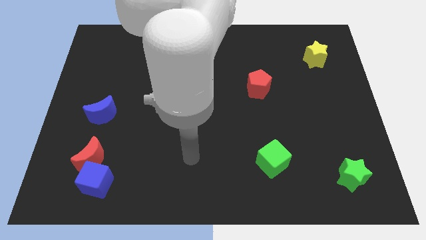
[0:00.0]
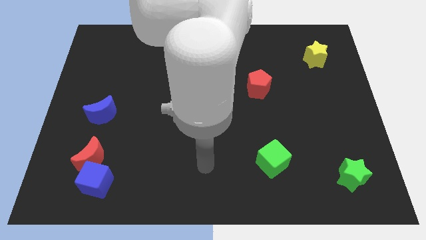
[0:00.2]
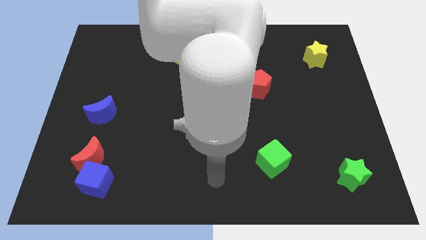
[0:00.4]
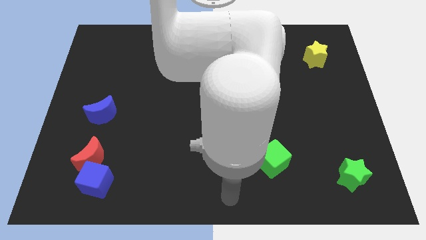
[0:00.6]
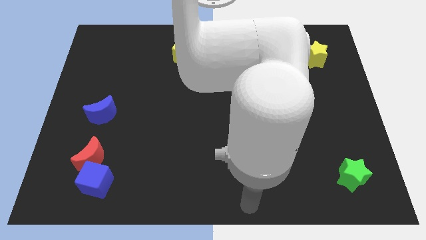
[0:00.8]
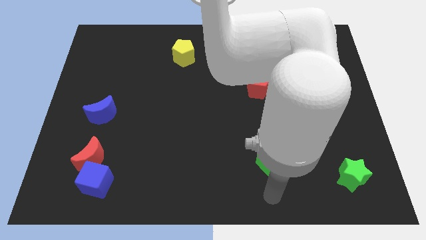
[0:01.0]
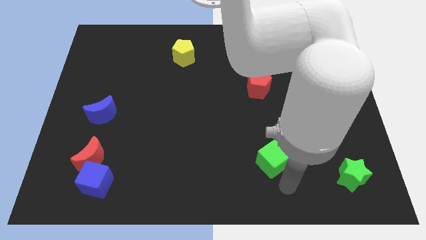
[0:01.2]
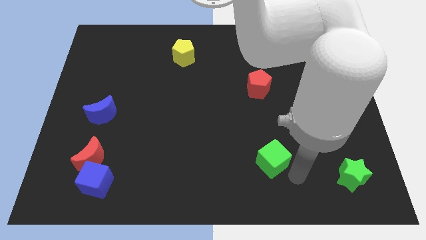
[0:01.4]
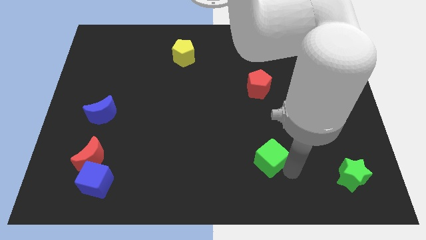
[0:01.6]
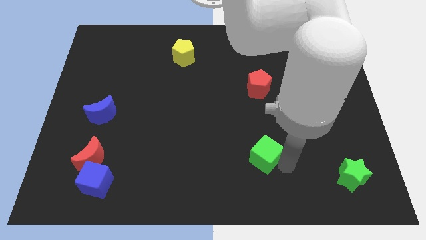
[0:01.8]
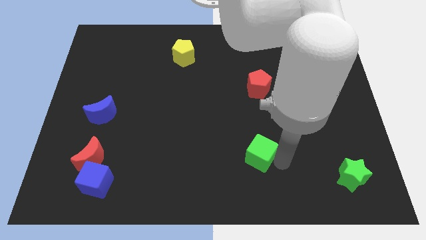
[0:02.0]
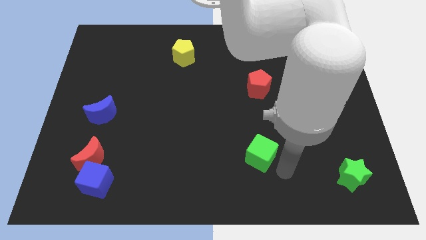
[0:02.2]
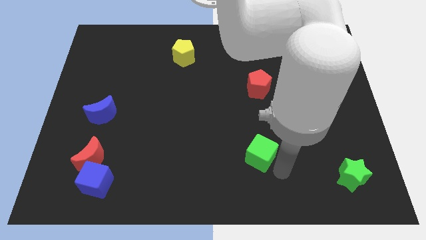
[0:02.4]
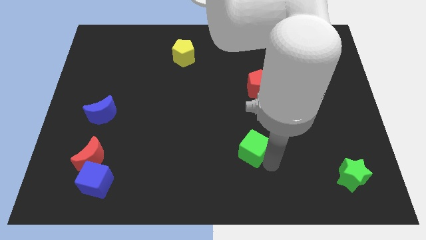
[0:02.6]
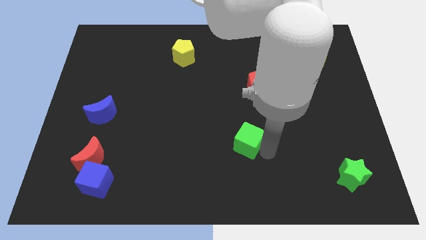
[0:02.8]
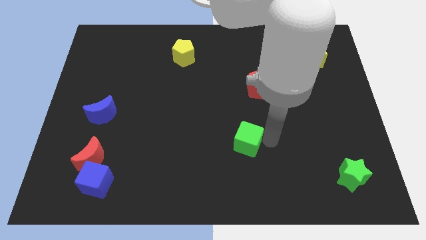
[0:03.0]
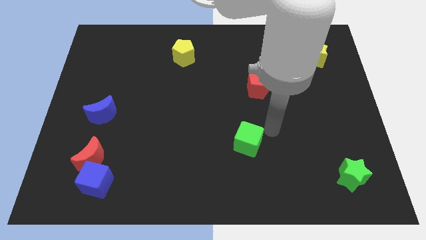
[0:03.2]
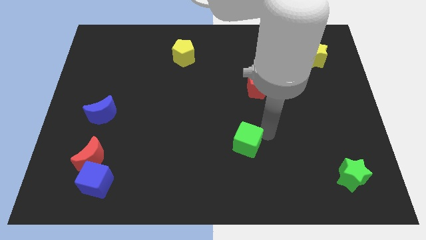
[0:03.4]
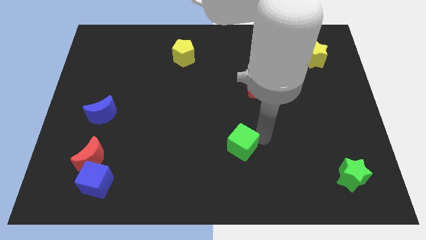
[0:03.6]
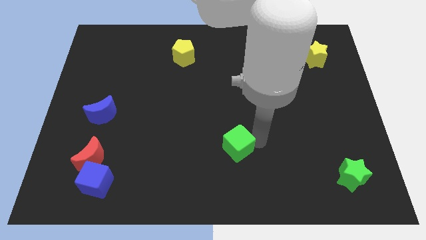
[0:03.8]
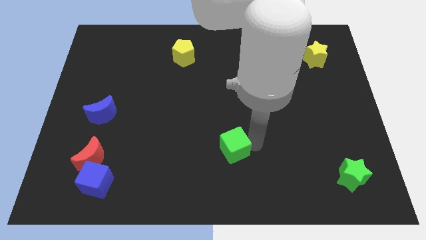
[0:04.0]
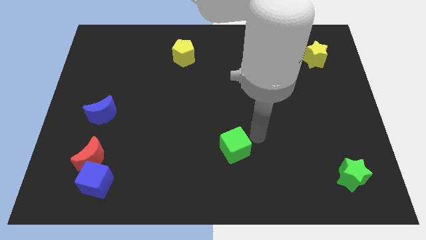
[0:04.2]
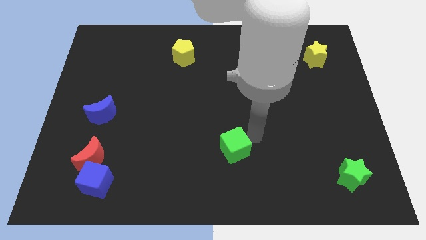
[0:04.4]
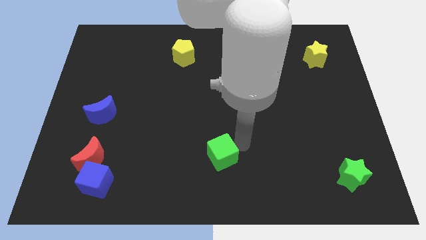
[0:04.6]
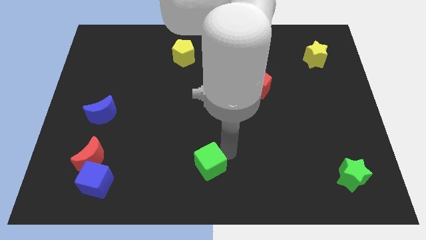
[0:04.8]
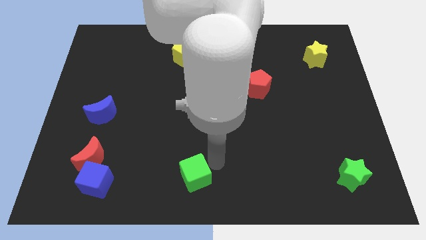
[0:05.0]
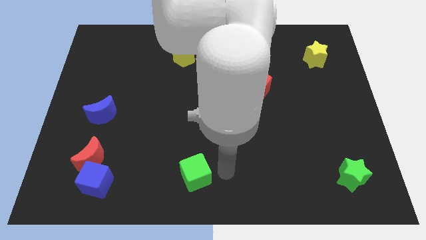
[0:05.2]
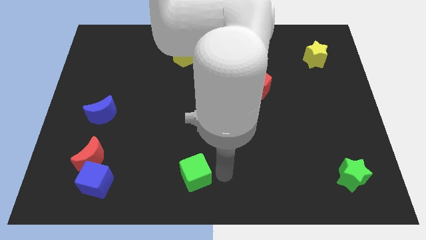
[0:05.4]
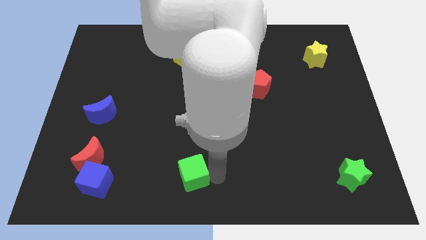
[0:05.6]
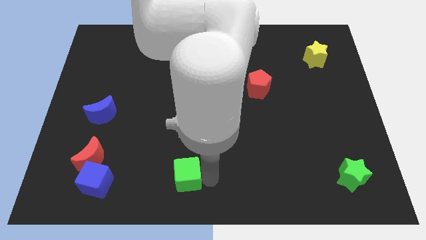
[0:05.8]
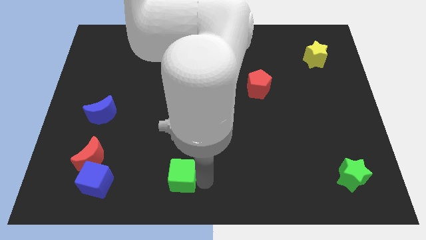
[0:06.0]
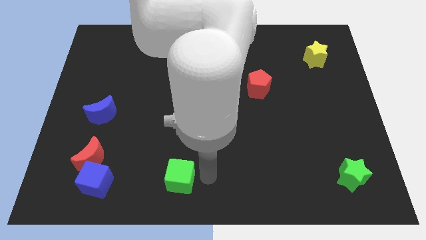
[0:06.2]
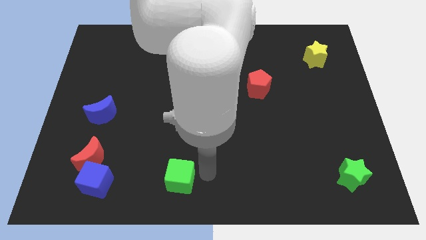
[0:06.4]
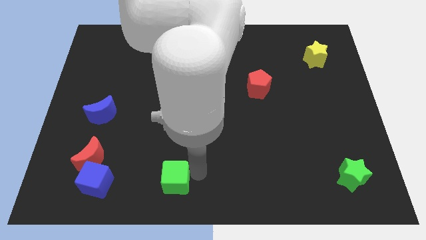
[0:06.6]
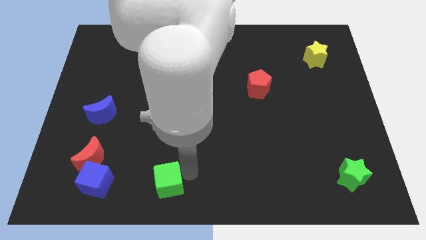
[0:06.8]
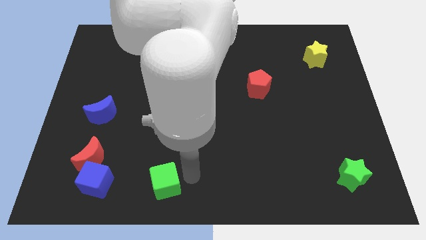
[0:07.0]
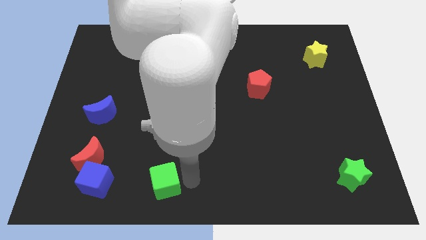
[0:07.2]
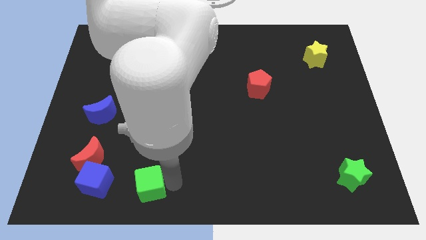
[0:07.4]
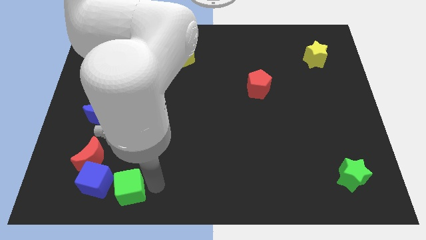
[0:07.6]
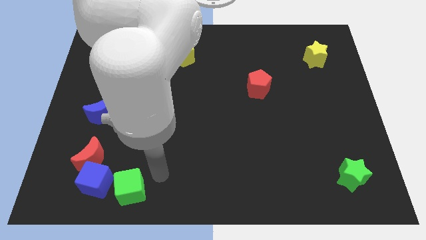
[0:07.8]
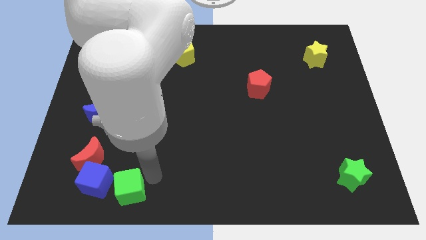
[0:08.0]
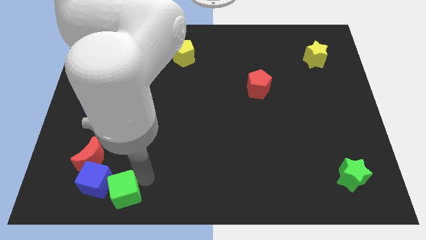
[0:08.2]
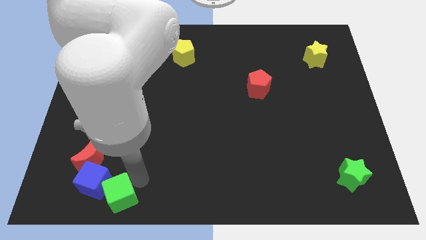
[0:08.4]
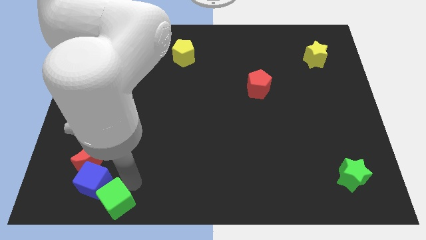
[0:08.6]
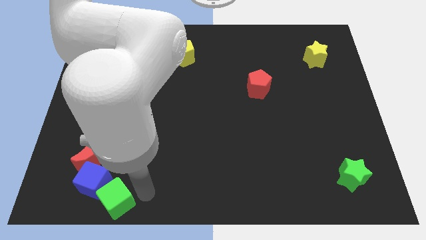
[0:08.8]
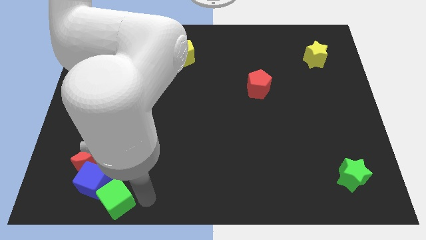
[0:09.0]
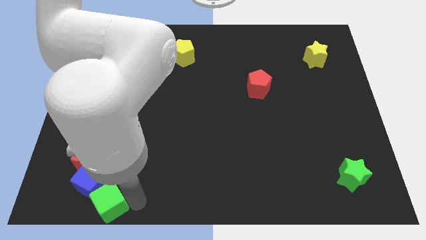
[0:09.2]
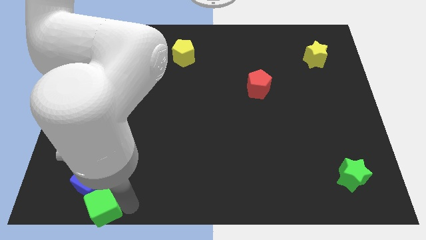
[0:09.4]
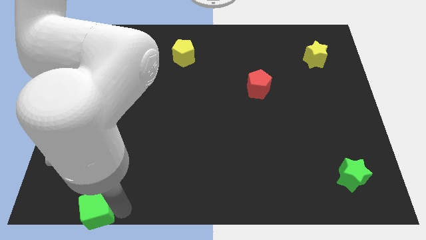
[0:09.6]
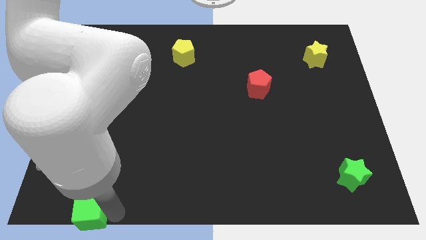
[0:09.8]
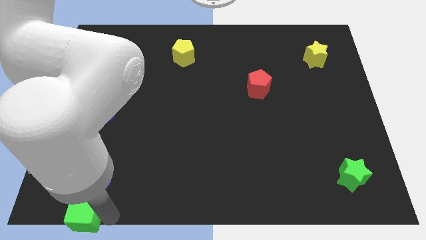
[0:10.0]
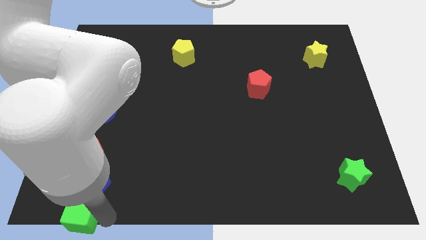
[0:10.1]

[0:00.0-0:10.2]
move the green cube to the lower left corner

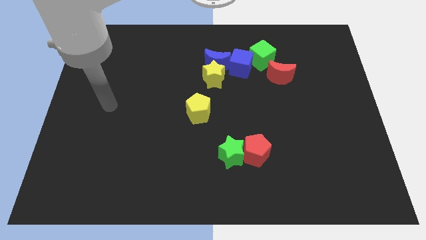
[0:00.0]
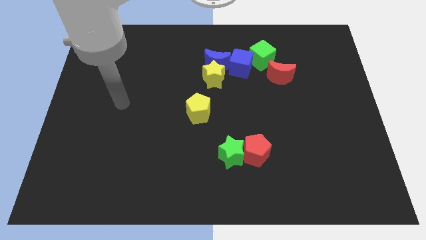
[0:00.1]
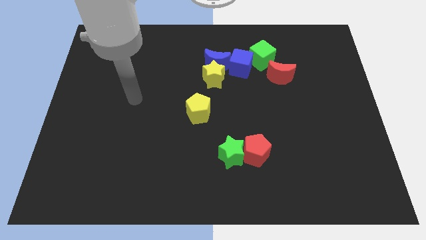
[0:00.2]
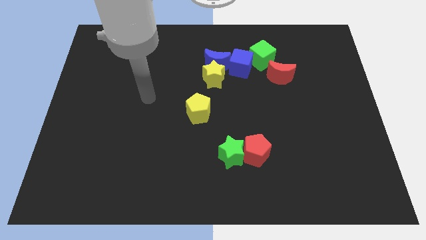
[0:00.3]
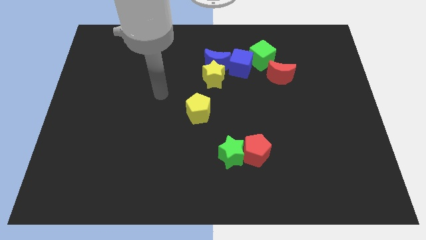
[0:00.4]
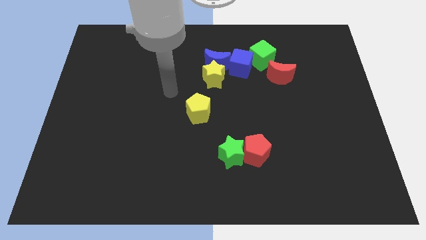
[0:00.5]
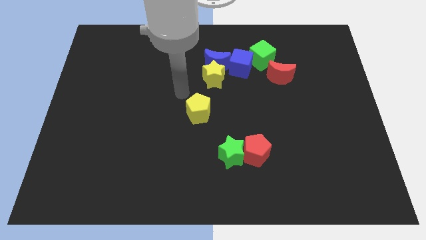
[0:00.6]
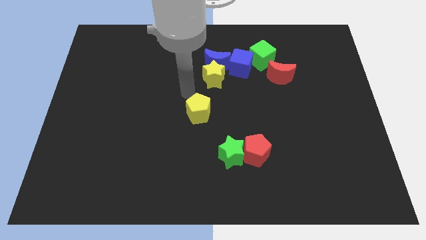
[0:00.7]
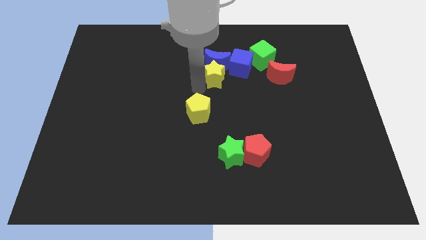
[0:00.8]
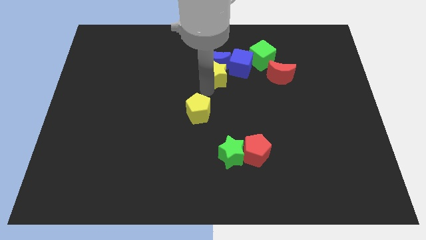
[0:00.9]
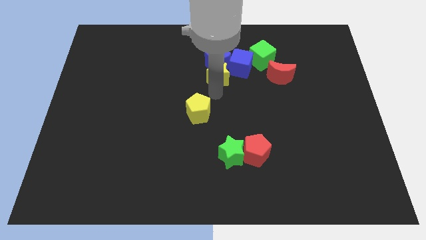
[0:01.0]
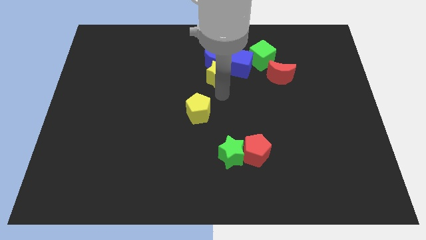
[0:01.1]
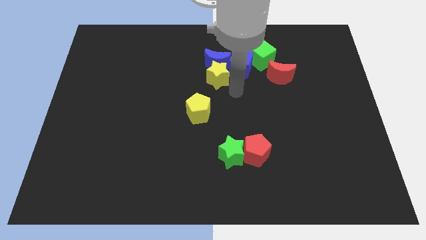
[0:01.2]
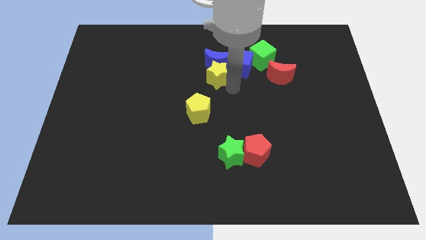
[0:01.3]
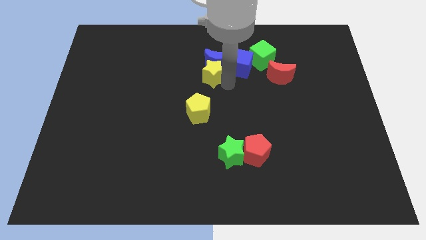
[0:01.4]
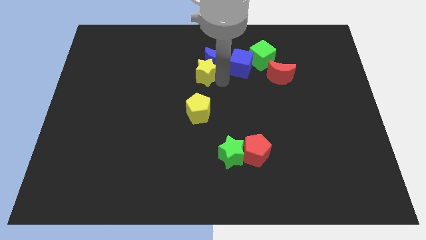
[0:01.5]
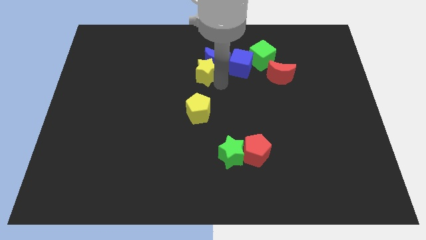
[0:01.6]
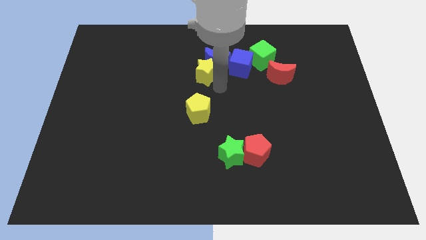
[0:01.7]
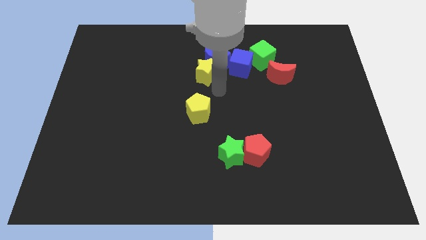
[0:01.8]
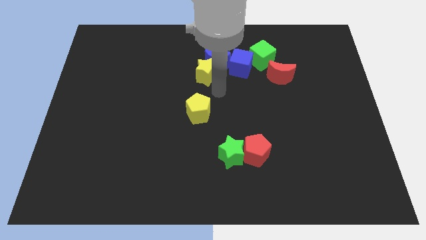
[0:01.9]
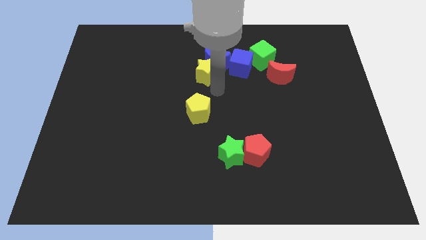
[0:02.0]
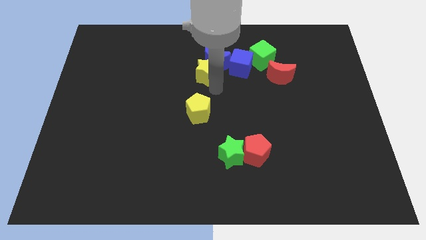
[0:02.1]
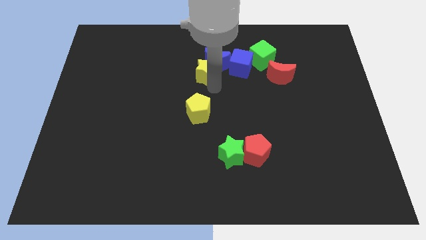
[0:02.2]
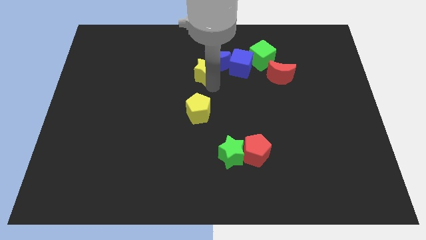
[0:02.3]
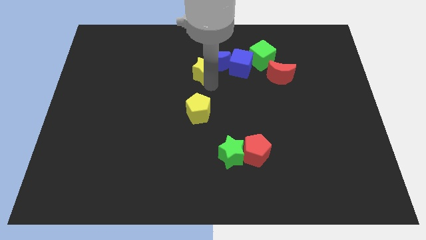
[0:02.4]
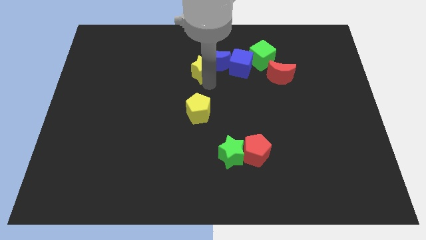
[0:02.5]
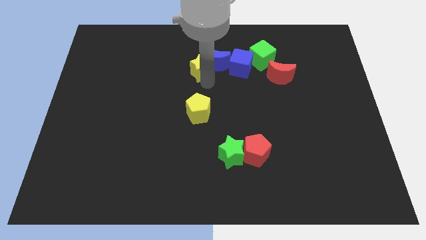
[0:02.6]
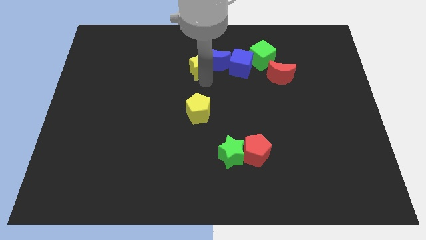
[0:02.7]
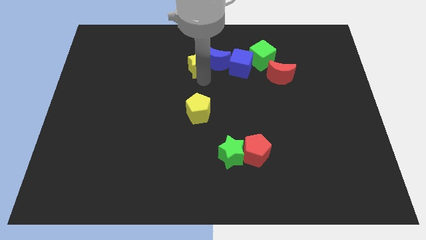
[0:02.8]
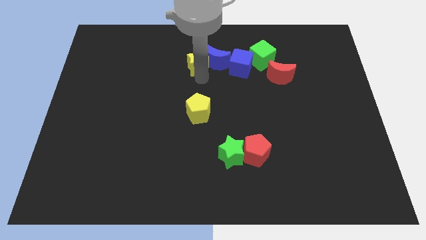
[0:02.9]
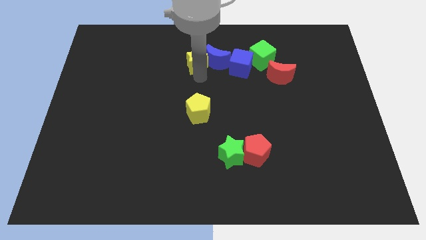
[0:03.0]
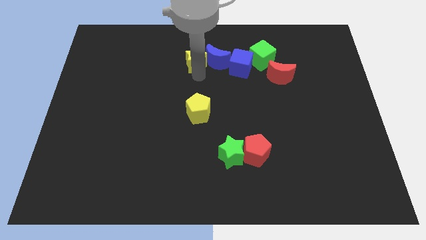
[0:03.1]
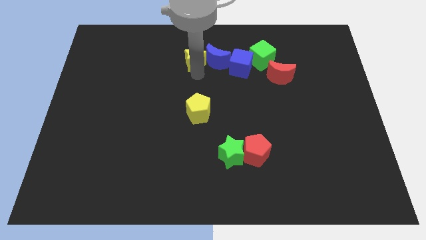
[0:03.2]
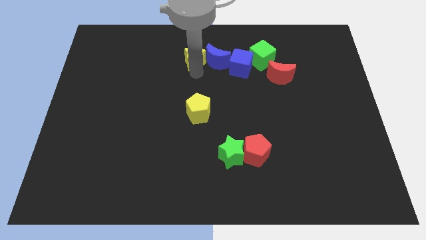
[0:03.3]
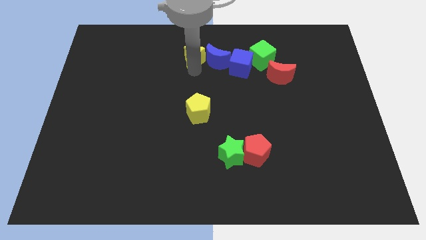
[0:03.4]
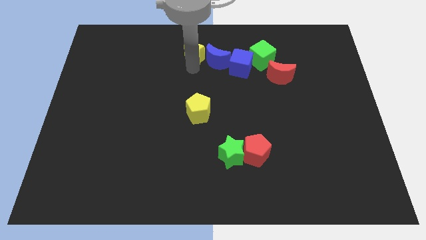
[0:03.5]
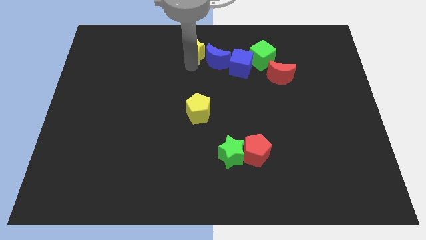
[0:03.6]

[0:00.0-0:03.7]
move the yellow star to the top side
